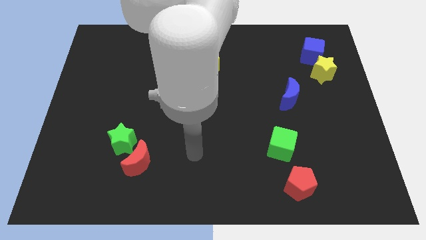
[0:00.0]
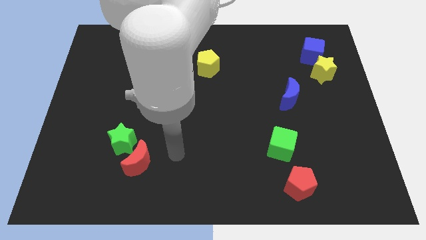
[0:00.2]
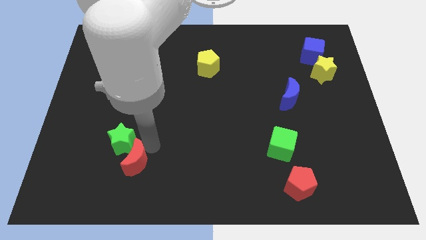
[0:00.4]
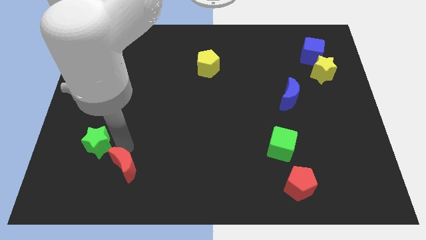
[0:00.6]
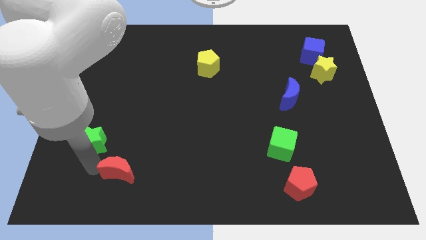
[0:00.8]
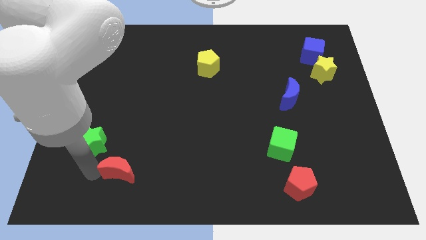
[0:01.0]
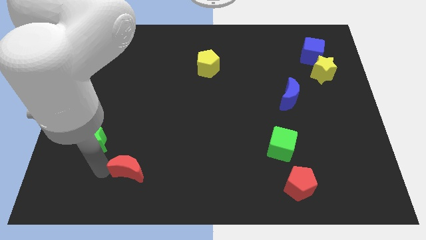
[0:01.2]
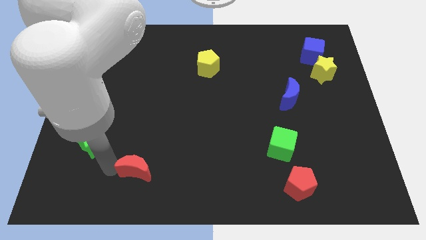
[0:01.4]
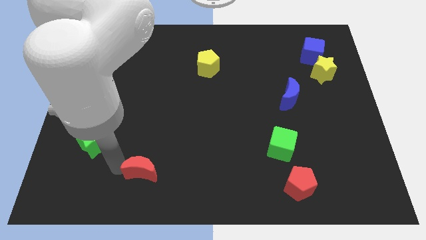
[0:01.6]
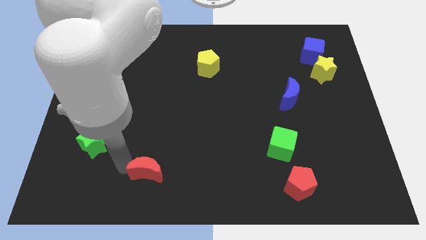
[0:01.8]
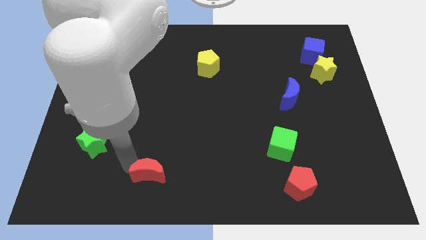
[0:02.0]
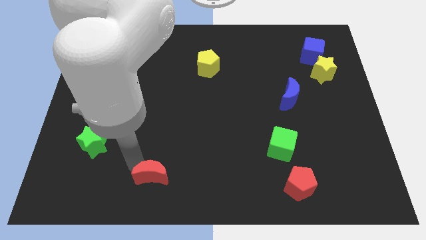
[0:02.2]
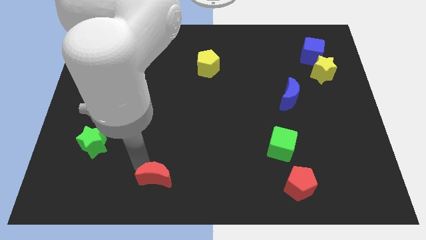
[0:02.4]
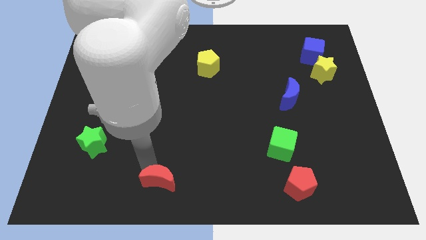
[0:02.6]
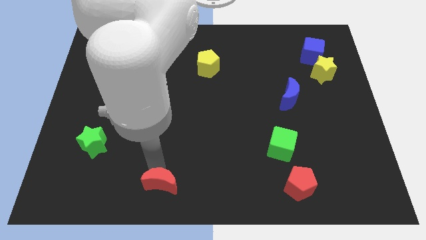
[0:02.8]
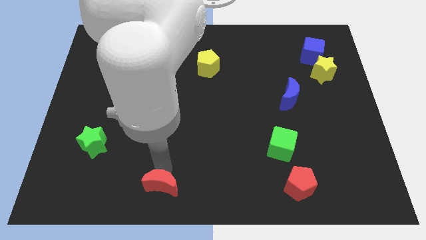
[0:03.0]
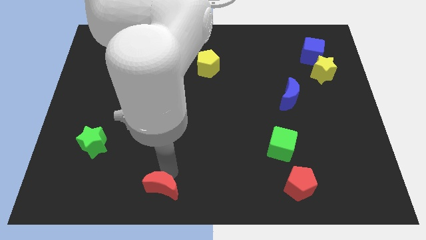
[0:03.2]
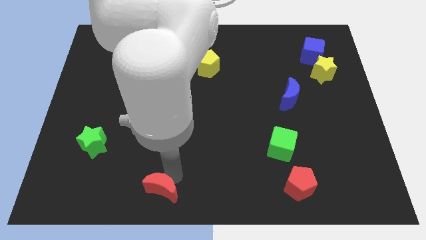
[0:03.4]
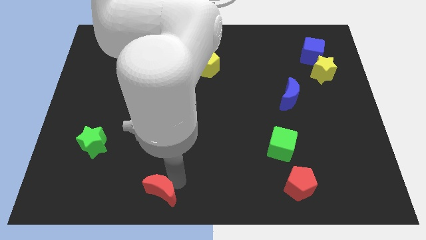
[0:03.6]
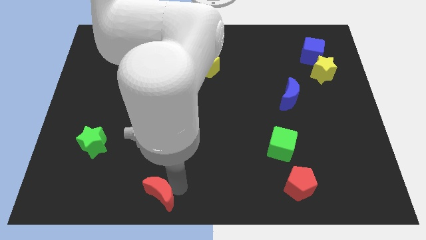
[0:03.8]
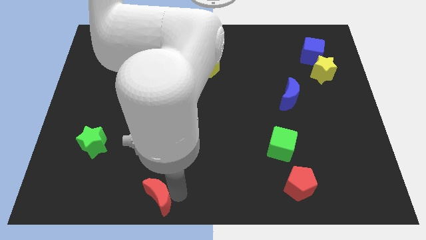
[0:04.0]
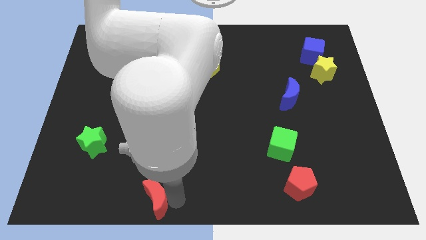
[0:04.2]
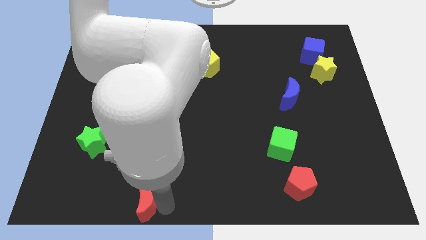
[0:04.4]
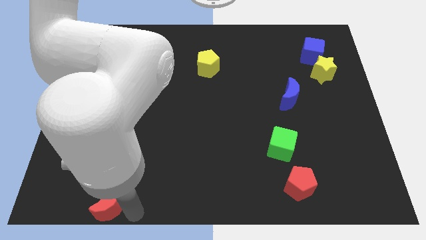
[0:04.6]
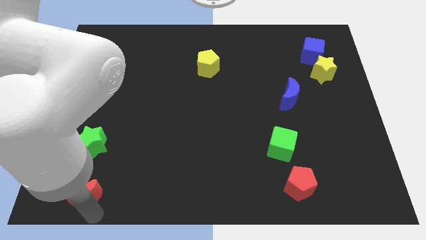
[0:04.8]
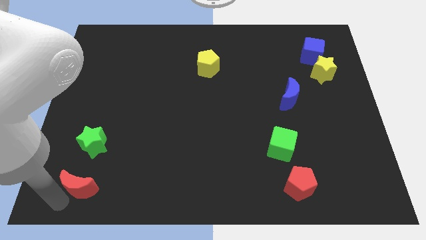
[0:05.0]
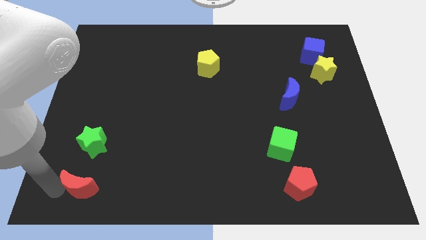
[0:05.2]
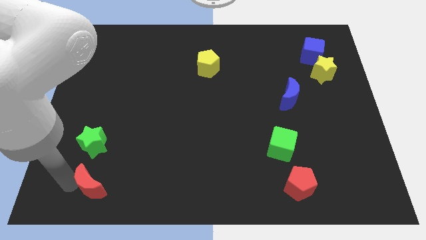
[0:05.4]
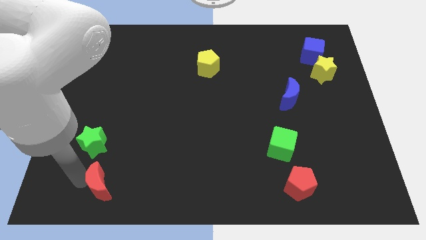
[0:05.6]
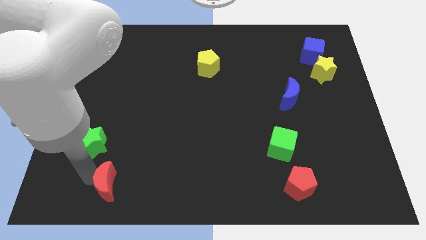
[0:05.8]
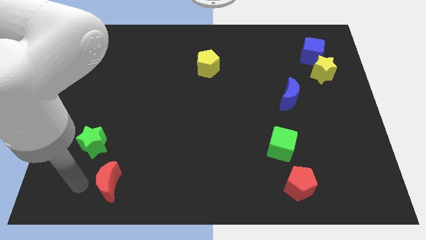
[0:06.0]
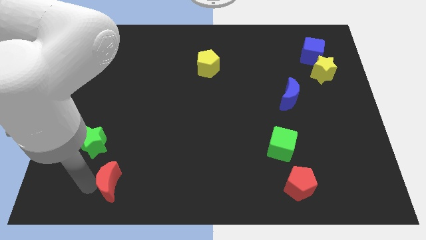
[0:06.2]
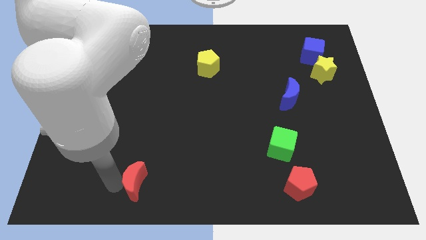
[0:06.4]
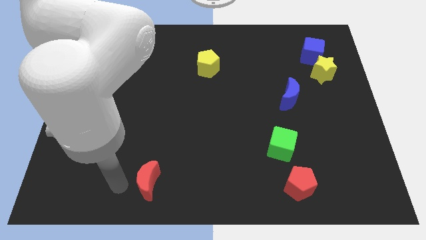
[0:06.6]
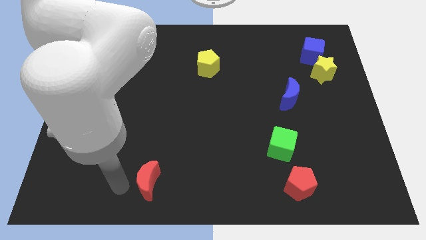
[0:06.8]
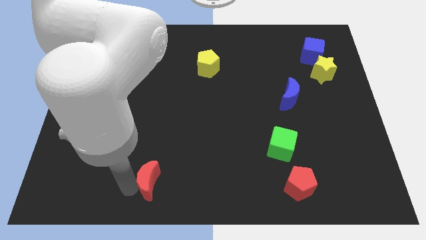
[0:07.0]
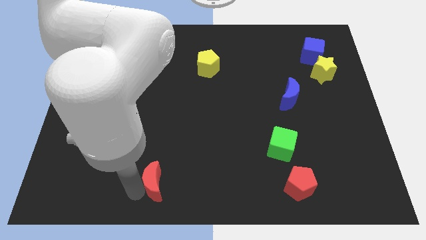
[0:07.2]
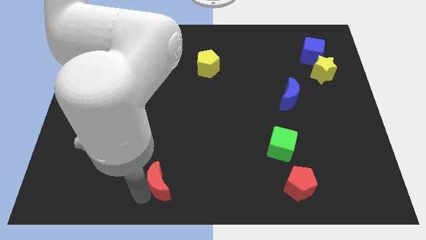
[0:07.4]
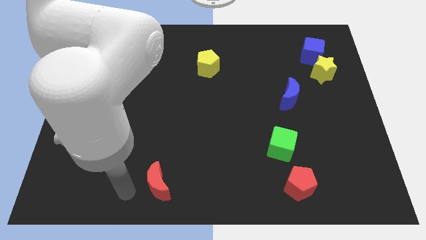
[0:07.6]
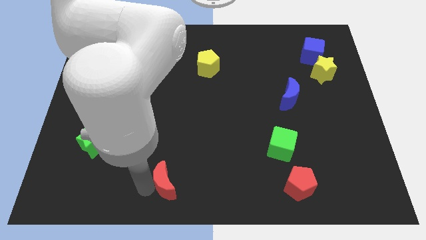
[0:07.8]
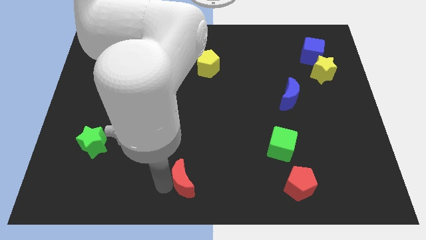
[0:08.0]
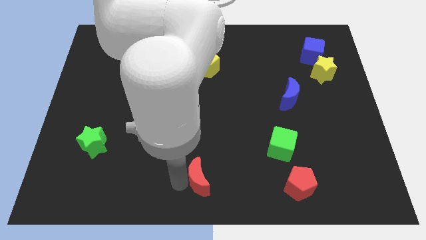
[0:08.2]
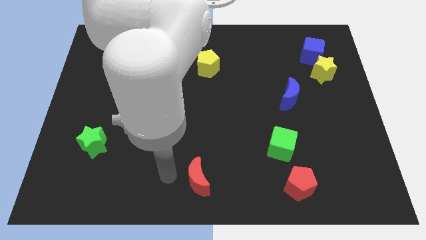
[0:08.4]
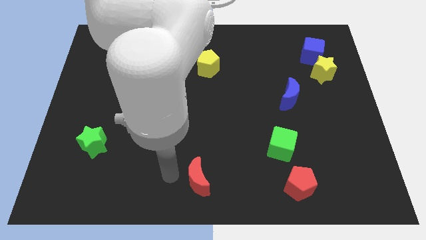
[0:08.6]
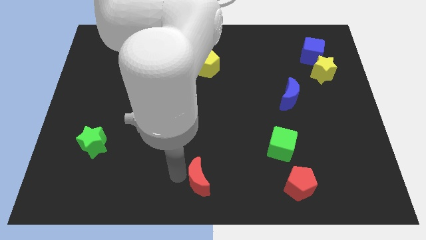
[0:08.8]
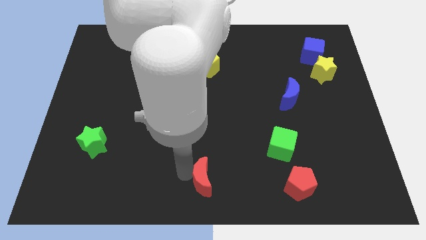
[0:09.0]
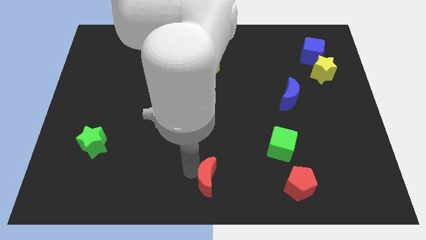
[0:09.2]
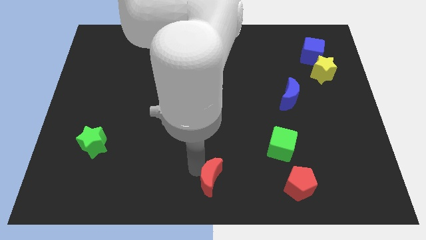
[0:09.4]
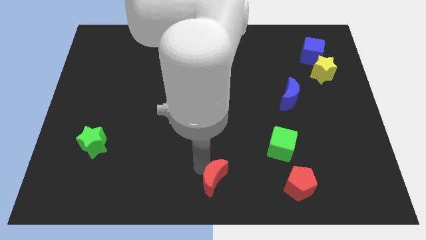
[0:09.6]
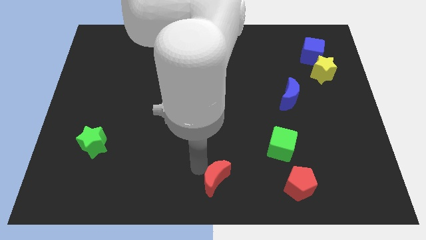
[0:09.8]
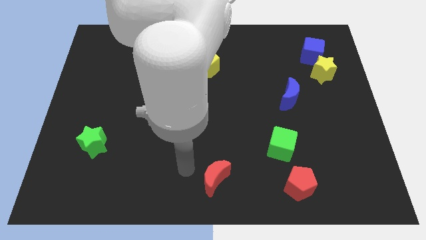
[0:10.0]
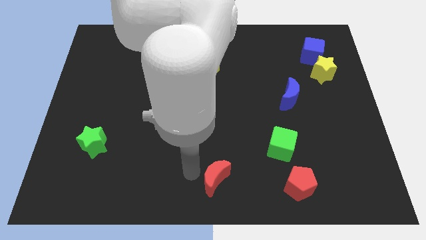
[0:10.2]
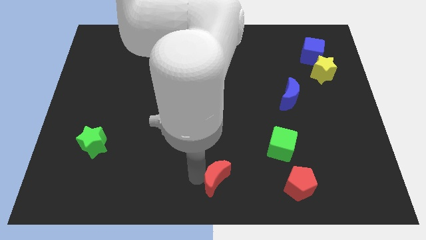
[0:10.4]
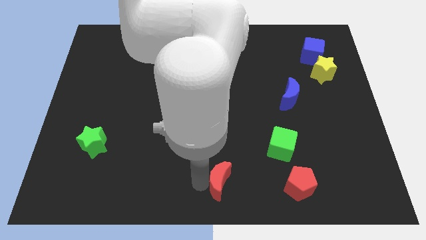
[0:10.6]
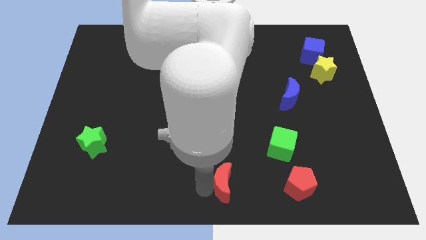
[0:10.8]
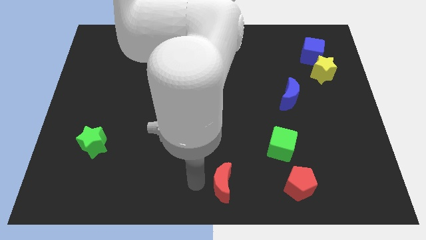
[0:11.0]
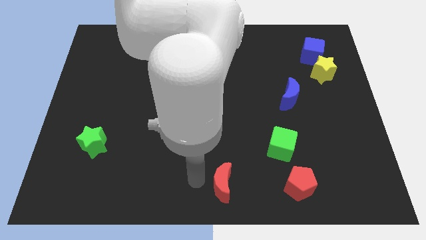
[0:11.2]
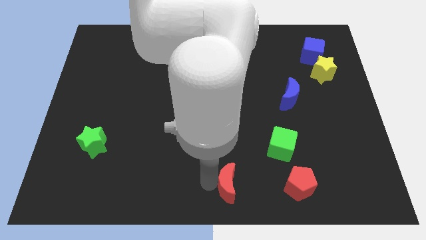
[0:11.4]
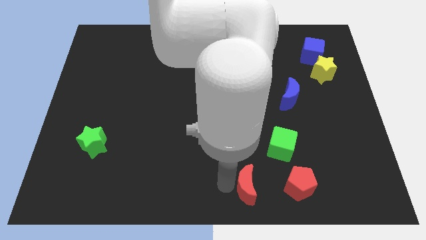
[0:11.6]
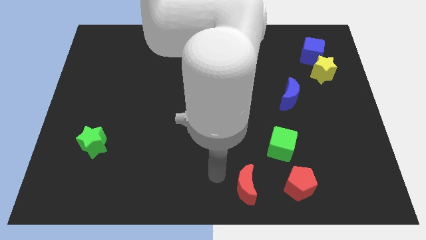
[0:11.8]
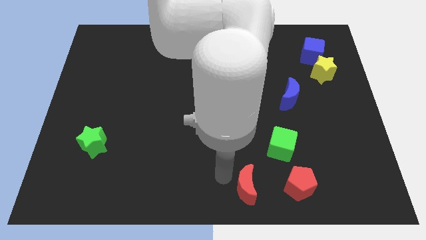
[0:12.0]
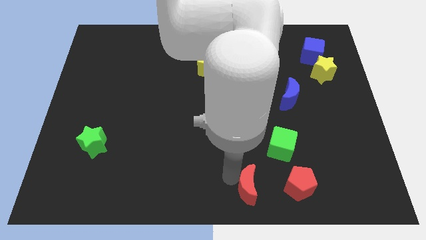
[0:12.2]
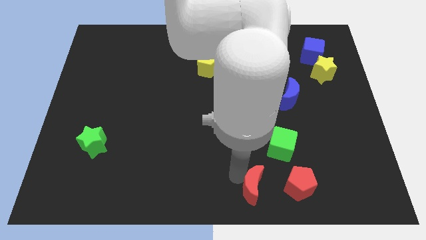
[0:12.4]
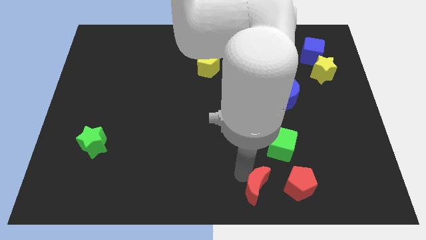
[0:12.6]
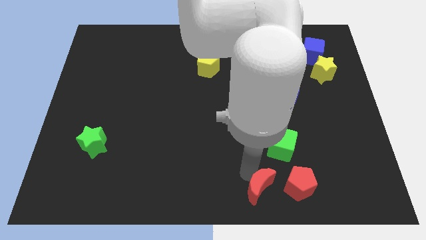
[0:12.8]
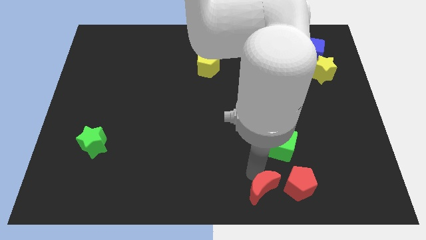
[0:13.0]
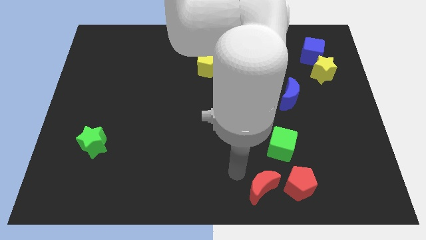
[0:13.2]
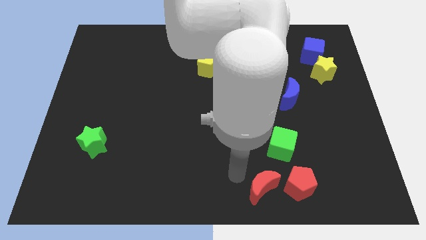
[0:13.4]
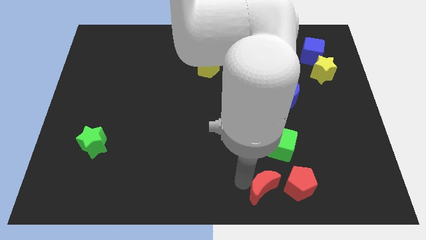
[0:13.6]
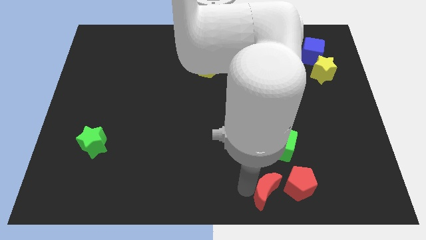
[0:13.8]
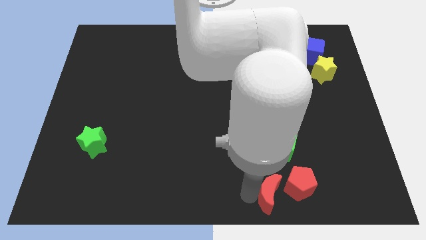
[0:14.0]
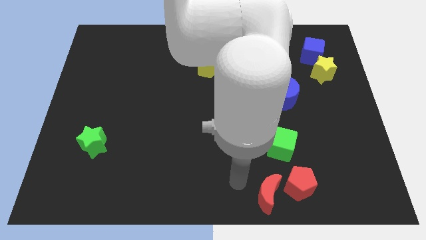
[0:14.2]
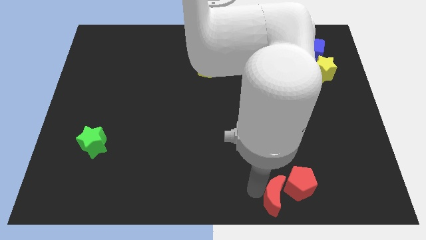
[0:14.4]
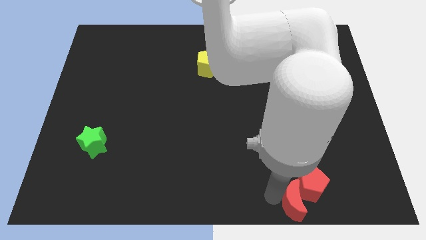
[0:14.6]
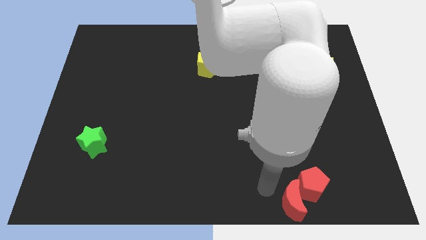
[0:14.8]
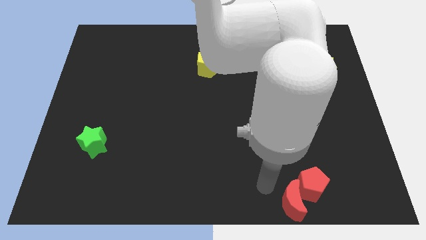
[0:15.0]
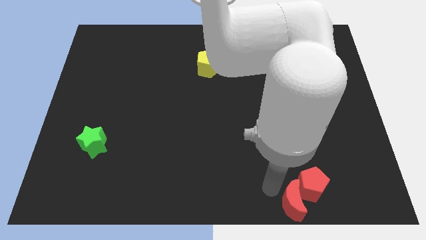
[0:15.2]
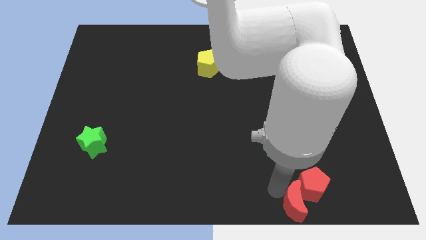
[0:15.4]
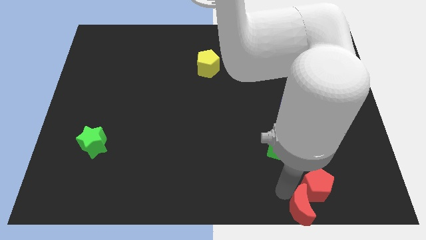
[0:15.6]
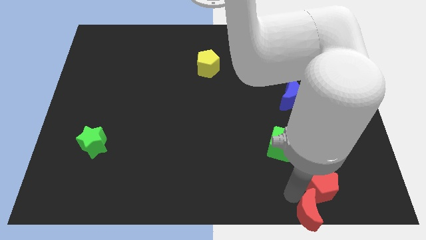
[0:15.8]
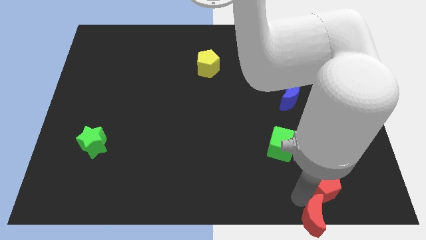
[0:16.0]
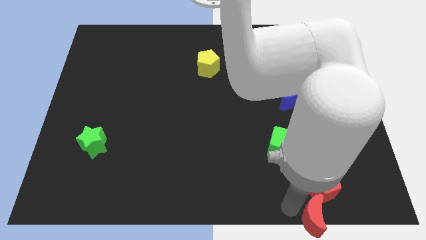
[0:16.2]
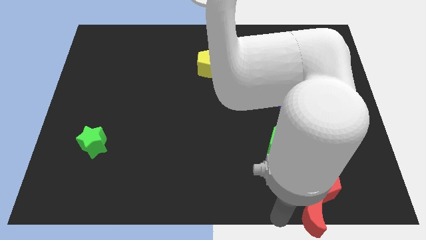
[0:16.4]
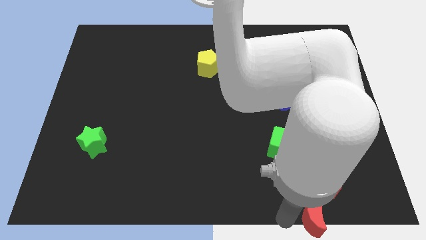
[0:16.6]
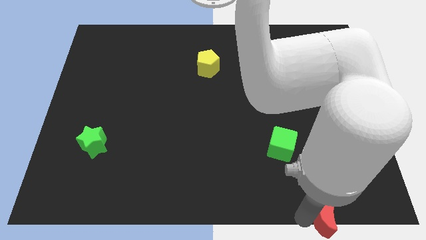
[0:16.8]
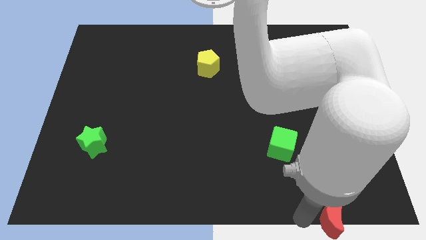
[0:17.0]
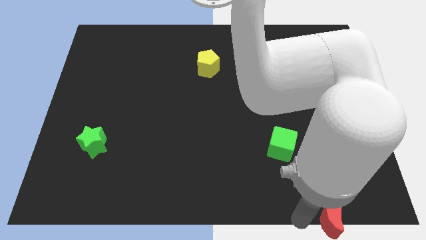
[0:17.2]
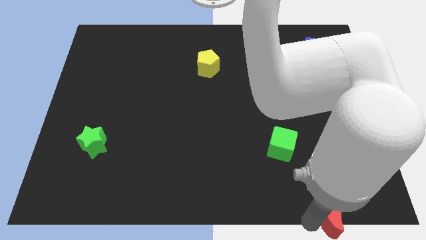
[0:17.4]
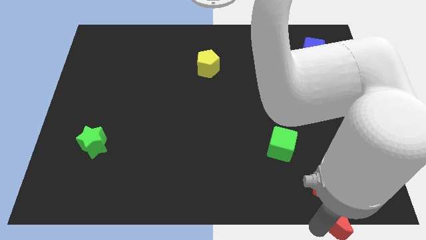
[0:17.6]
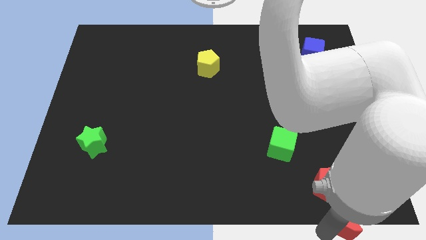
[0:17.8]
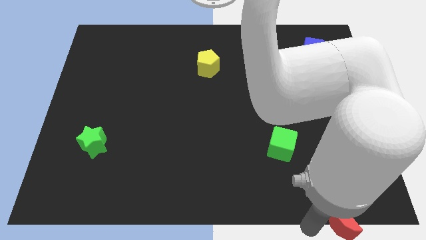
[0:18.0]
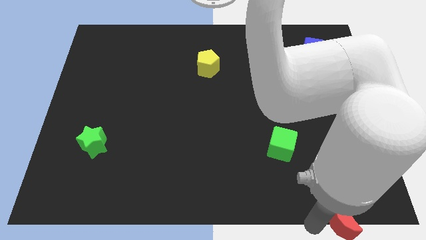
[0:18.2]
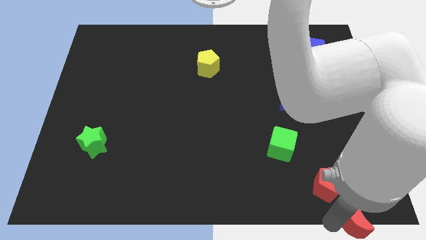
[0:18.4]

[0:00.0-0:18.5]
move the red moon to the bottom right
